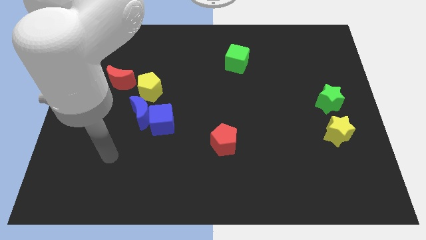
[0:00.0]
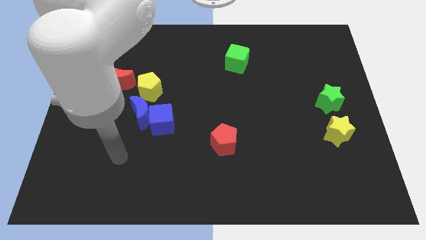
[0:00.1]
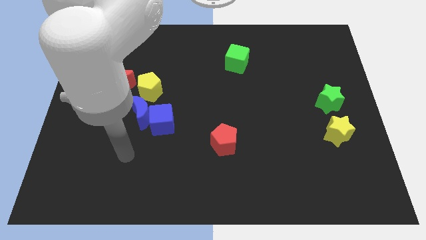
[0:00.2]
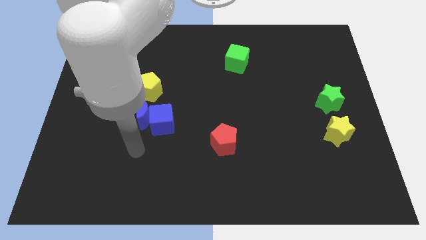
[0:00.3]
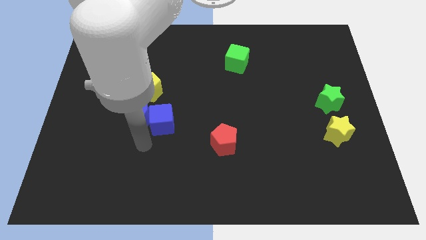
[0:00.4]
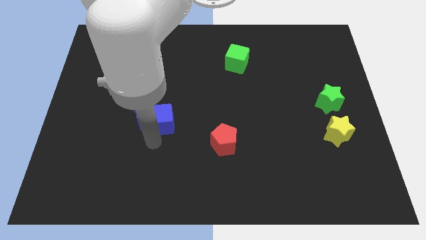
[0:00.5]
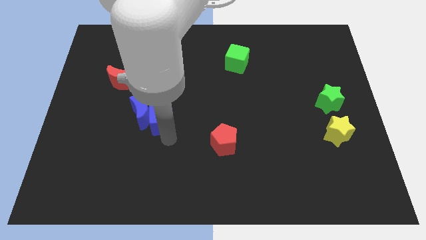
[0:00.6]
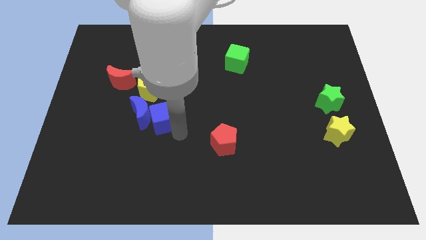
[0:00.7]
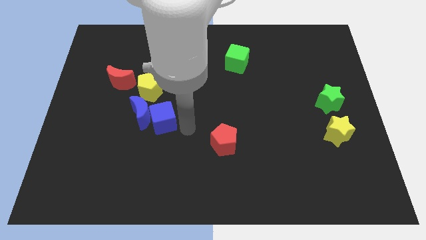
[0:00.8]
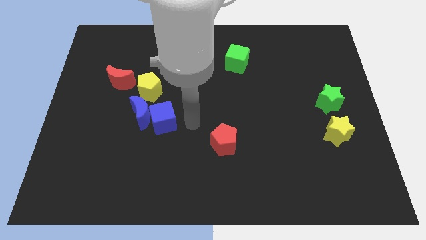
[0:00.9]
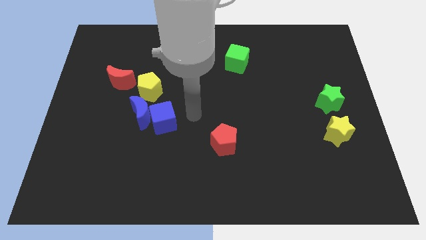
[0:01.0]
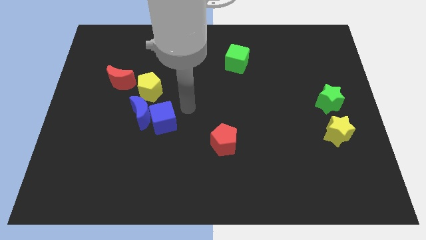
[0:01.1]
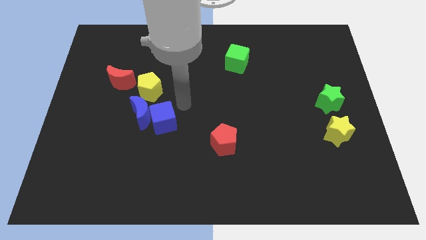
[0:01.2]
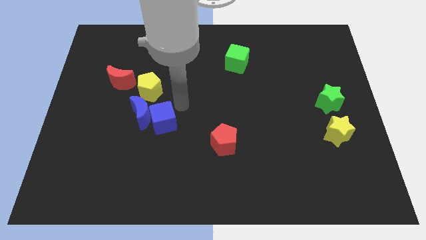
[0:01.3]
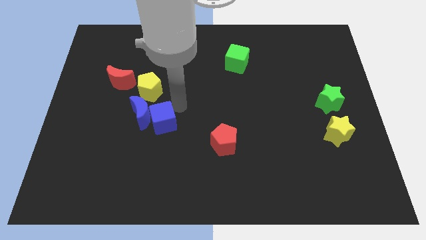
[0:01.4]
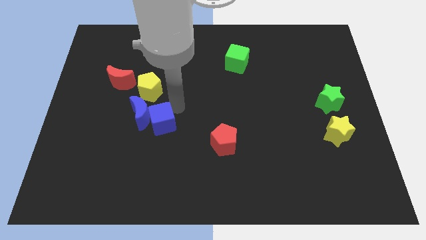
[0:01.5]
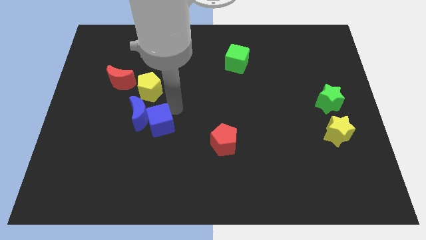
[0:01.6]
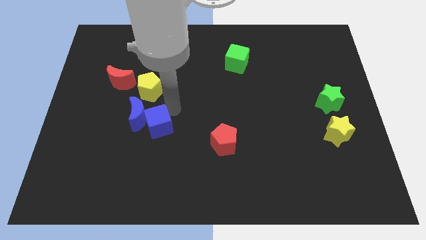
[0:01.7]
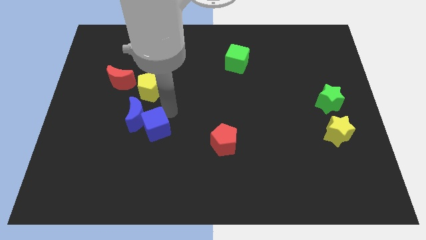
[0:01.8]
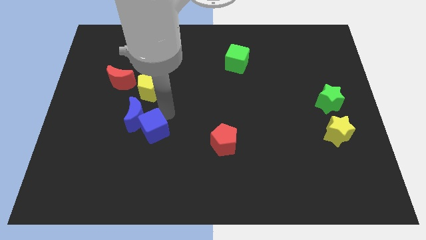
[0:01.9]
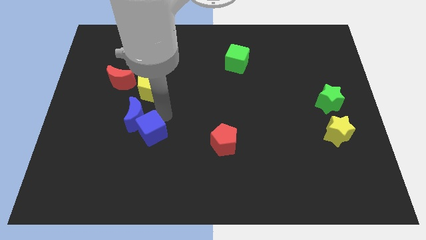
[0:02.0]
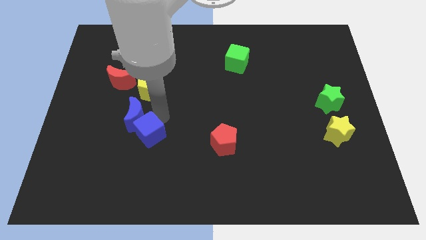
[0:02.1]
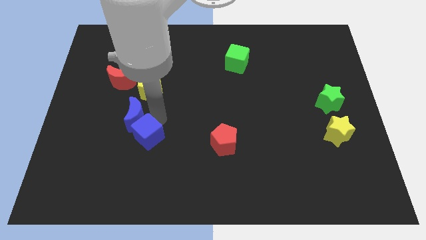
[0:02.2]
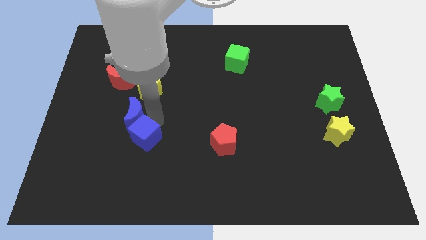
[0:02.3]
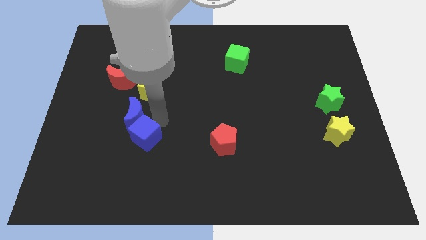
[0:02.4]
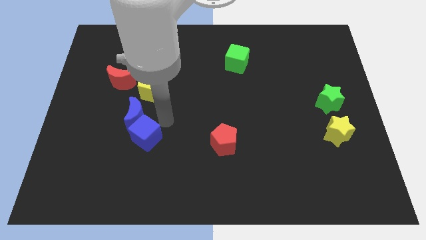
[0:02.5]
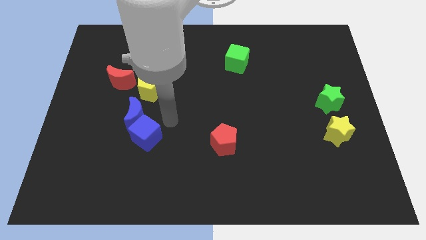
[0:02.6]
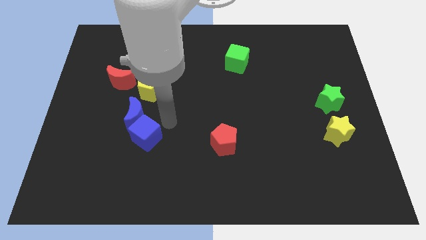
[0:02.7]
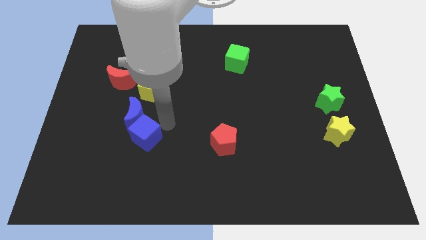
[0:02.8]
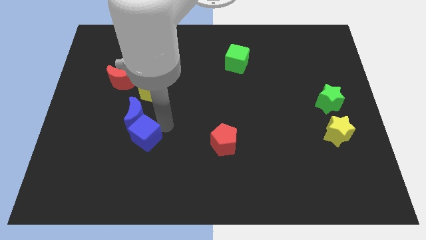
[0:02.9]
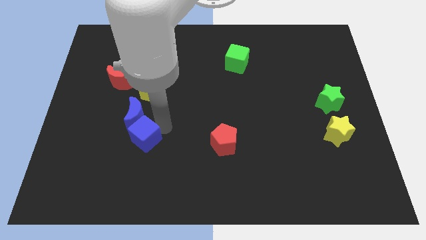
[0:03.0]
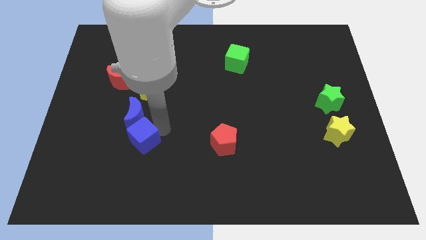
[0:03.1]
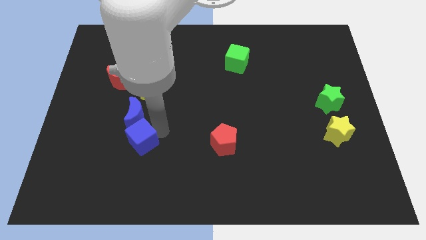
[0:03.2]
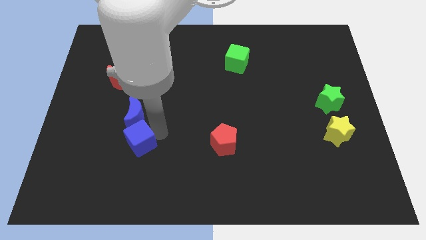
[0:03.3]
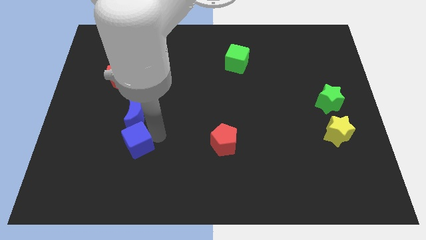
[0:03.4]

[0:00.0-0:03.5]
push the blue cube a little down and then left

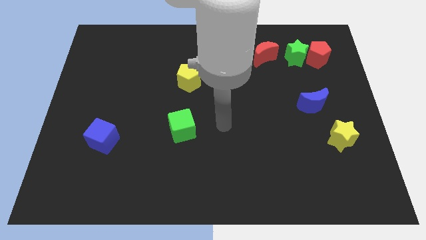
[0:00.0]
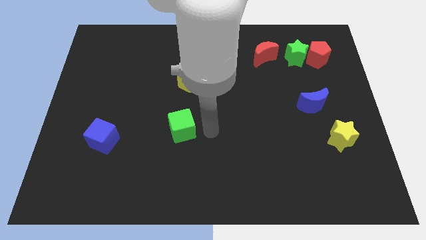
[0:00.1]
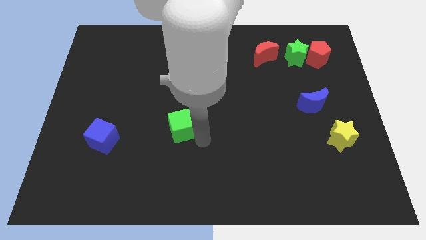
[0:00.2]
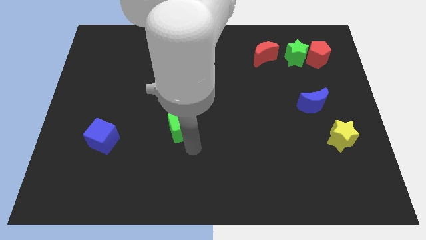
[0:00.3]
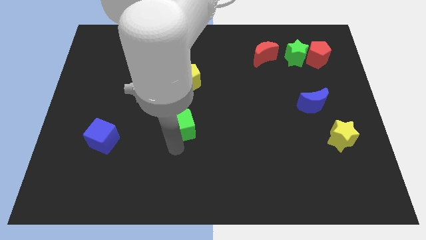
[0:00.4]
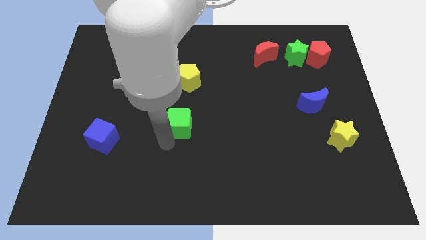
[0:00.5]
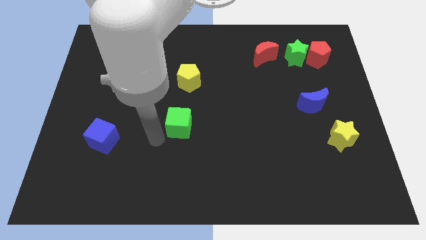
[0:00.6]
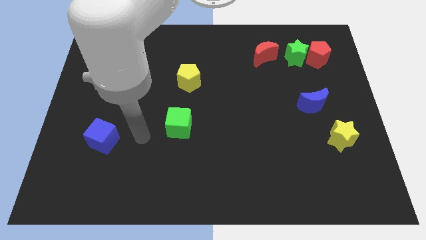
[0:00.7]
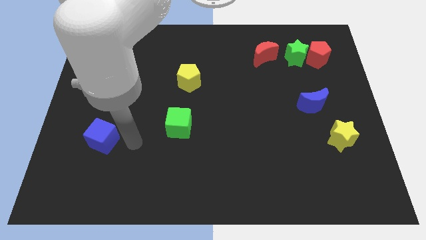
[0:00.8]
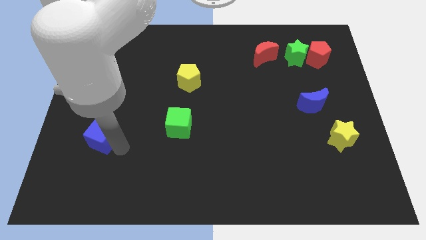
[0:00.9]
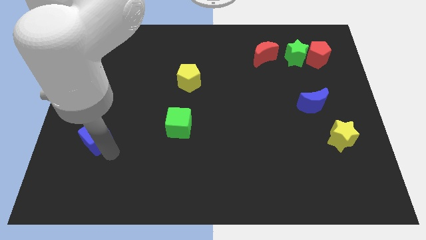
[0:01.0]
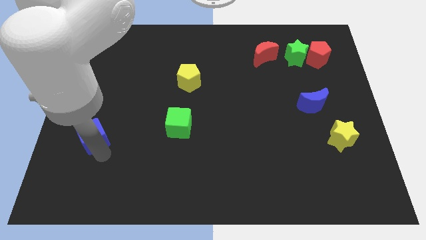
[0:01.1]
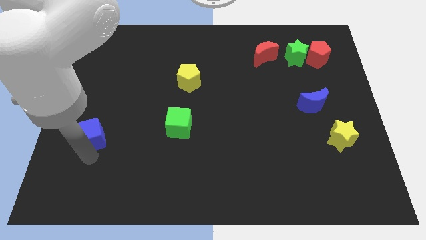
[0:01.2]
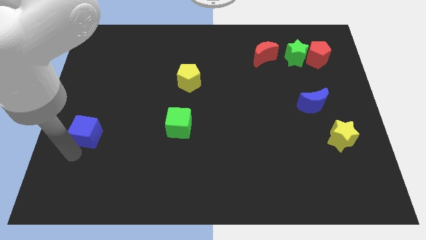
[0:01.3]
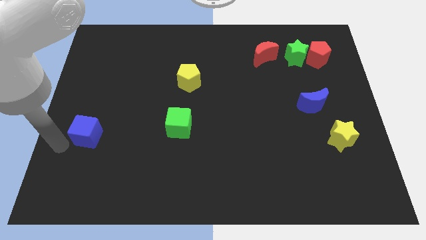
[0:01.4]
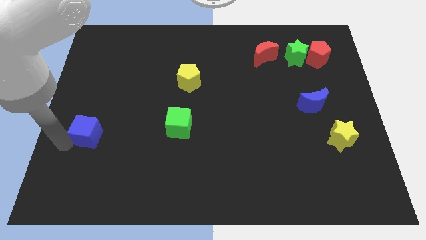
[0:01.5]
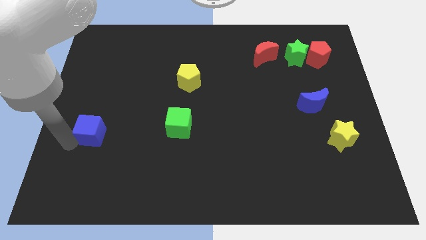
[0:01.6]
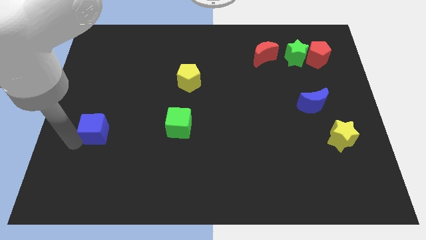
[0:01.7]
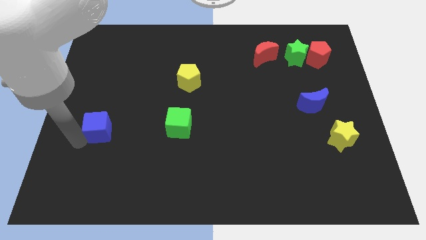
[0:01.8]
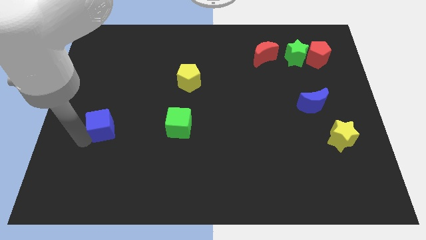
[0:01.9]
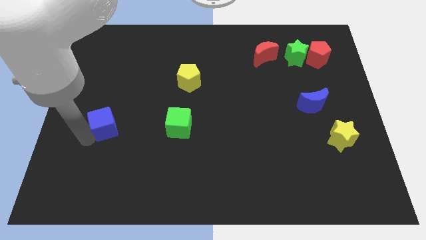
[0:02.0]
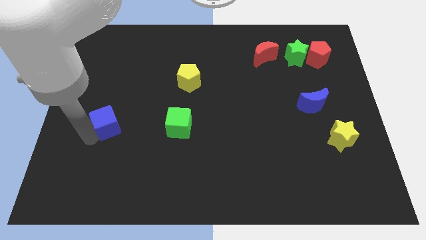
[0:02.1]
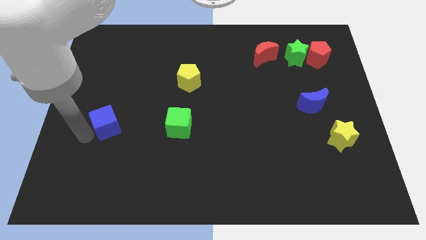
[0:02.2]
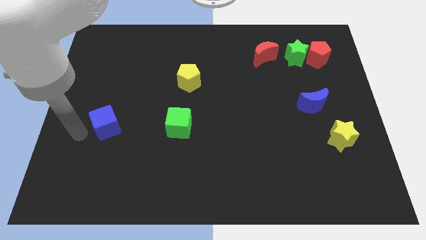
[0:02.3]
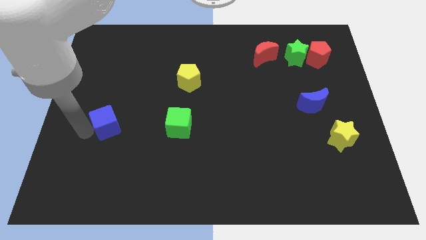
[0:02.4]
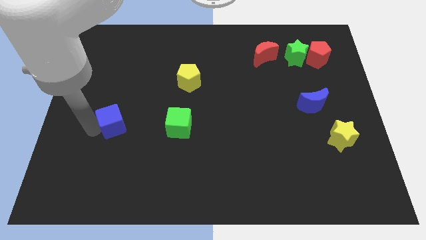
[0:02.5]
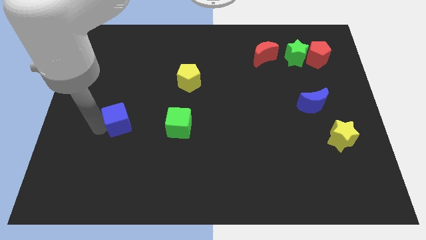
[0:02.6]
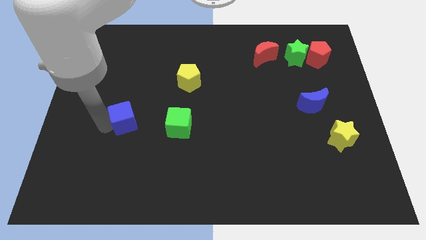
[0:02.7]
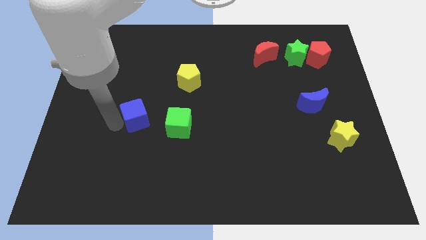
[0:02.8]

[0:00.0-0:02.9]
slightly move the blue cube upwards and right

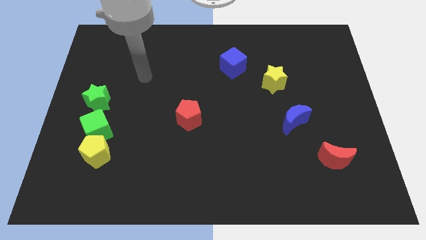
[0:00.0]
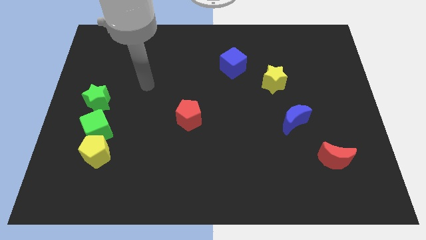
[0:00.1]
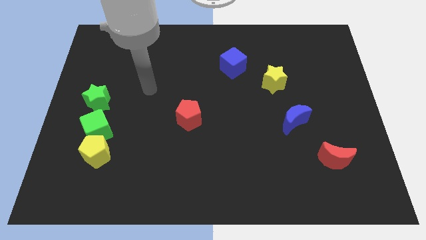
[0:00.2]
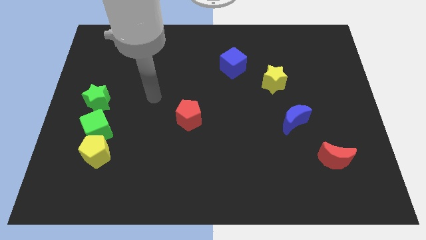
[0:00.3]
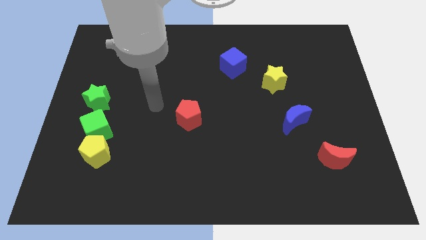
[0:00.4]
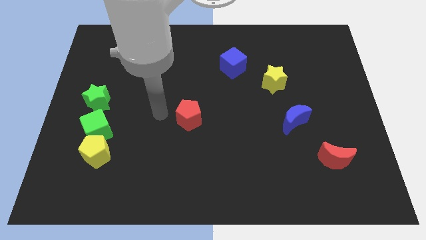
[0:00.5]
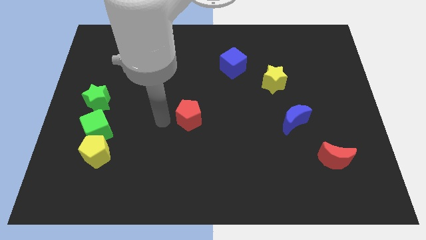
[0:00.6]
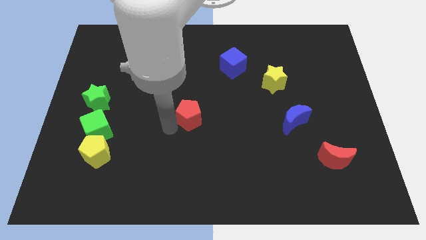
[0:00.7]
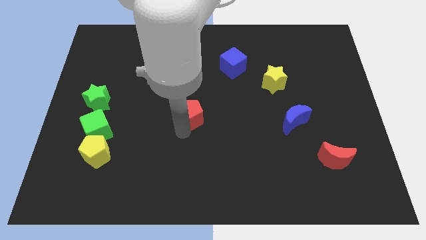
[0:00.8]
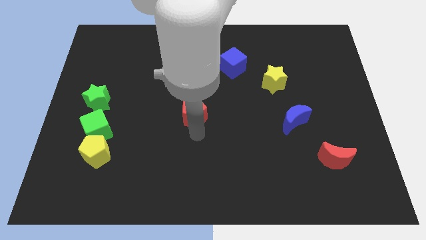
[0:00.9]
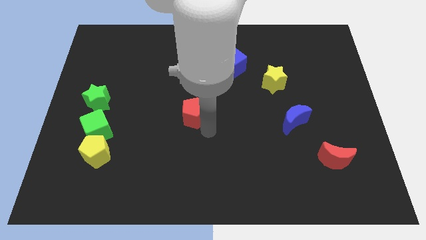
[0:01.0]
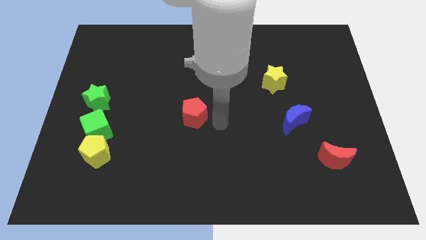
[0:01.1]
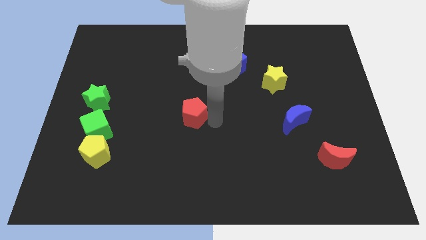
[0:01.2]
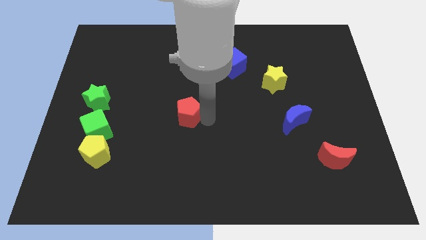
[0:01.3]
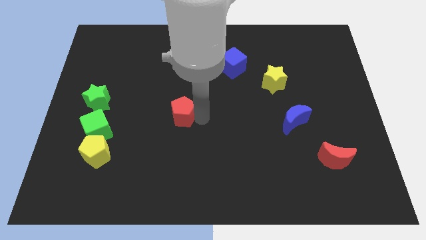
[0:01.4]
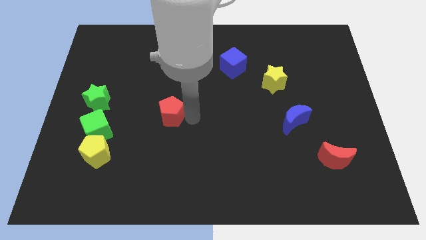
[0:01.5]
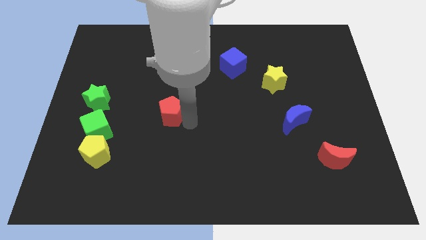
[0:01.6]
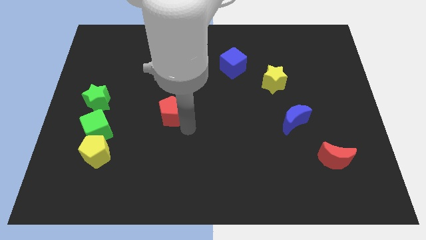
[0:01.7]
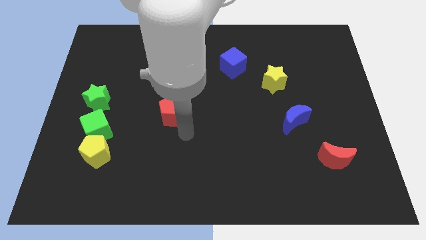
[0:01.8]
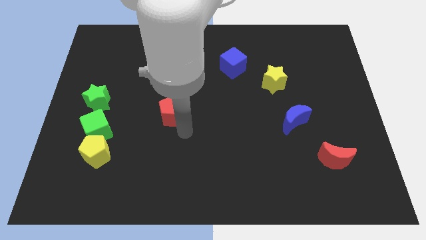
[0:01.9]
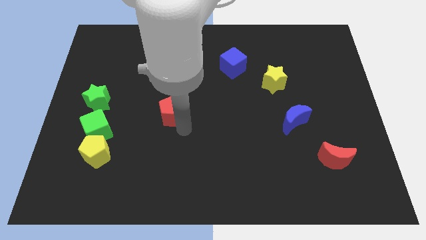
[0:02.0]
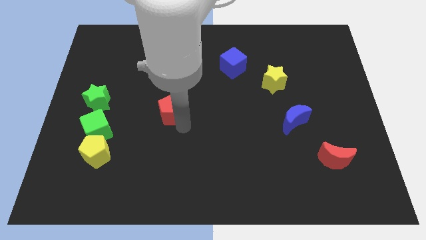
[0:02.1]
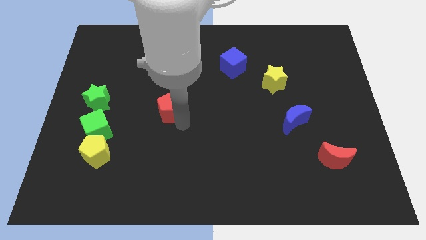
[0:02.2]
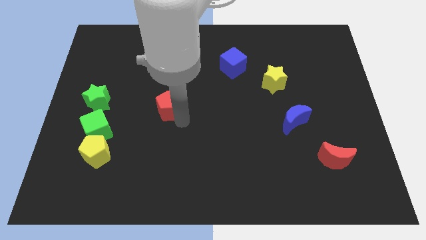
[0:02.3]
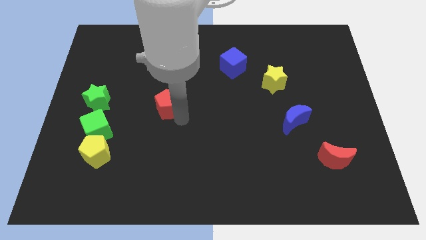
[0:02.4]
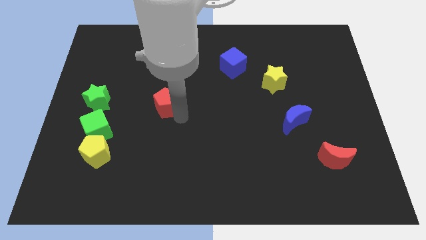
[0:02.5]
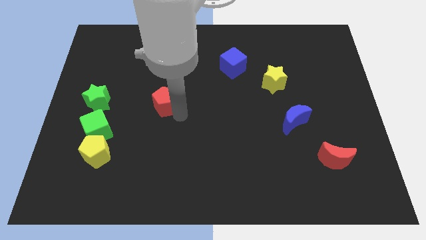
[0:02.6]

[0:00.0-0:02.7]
push the red pentagon up and to the left slightly
